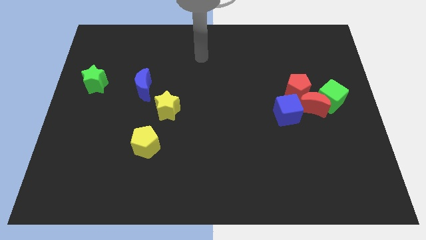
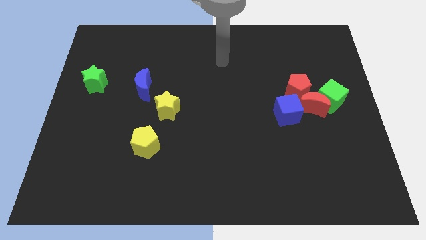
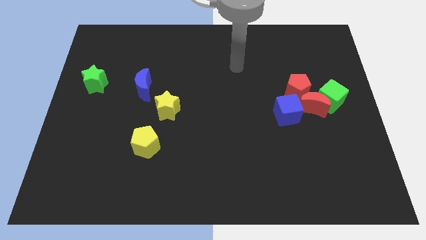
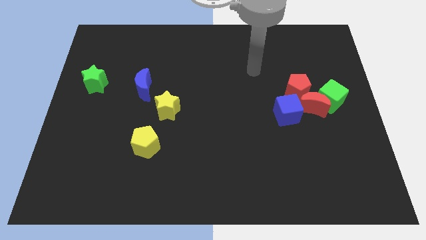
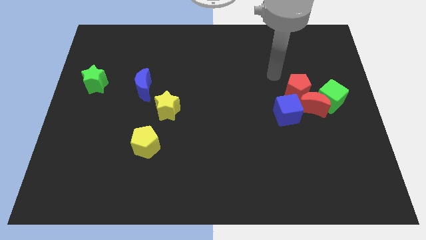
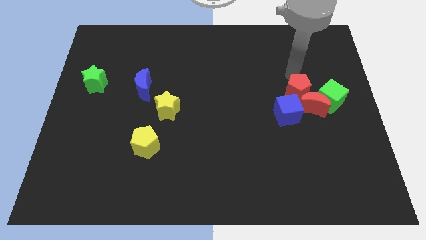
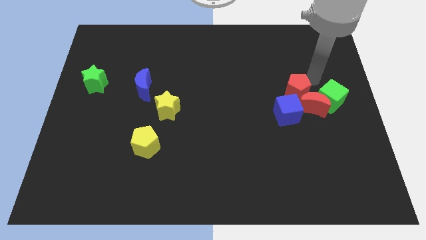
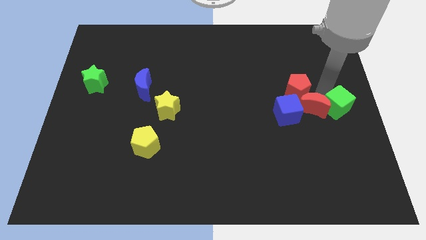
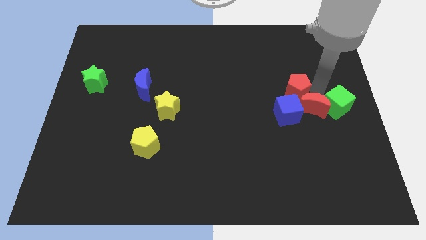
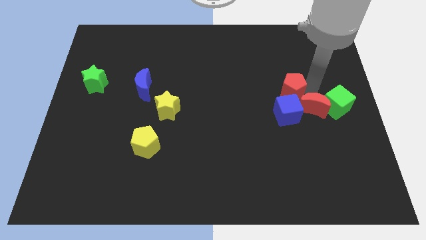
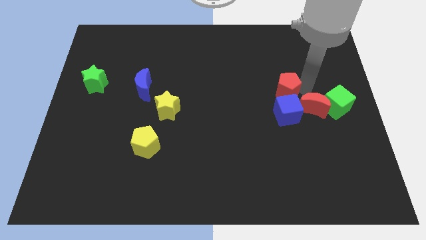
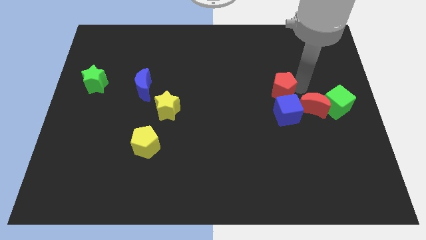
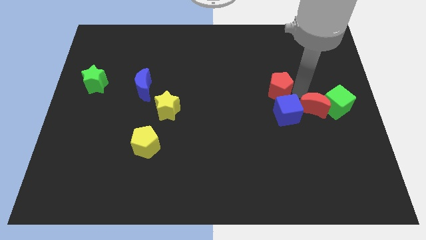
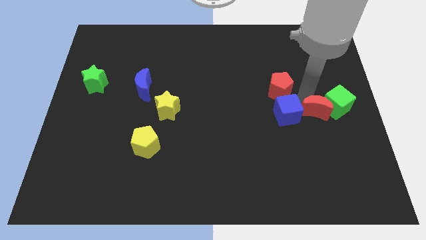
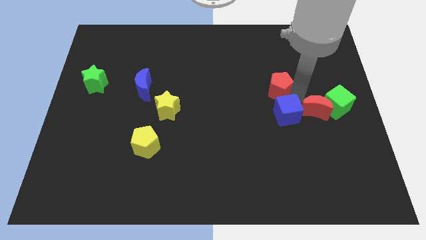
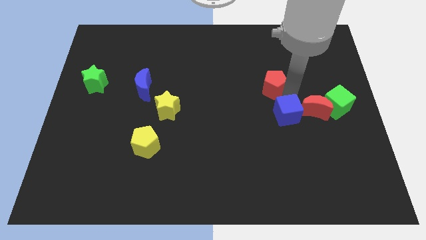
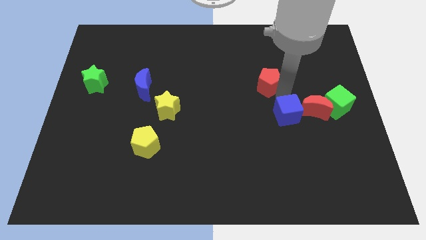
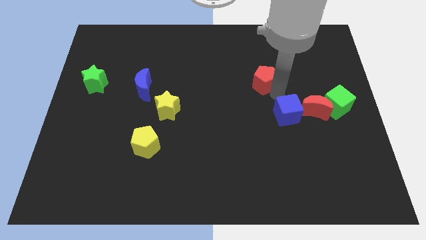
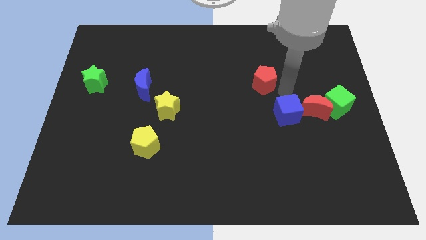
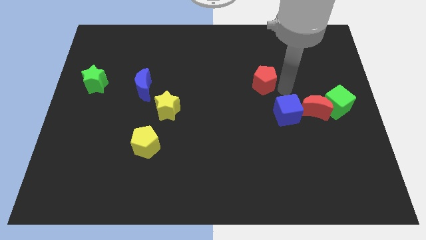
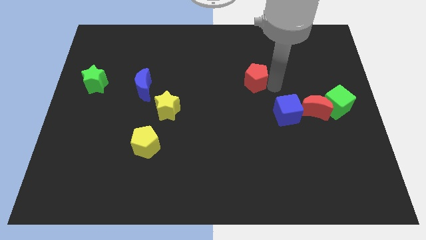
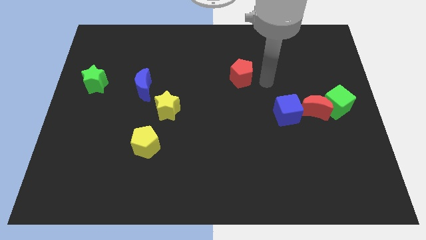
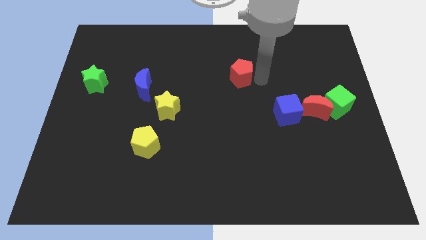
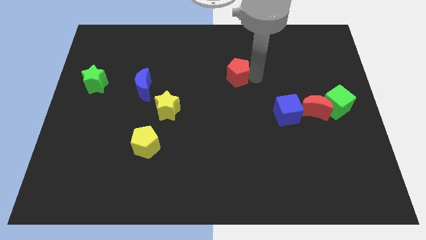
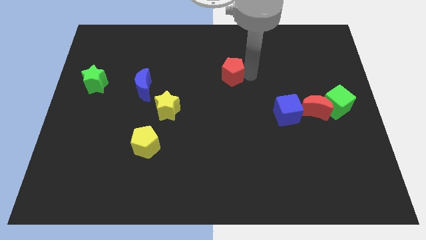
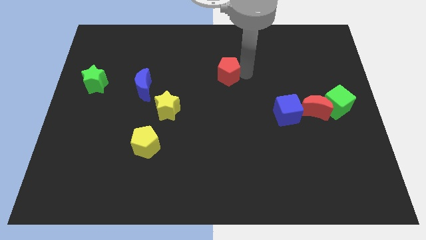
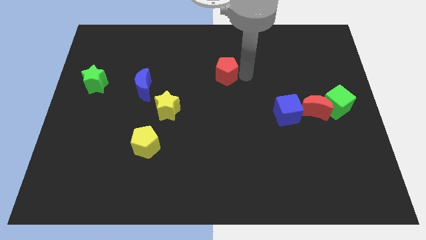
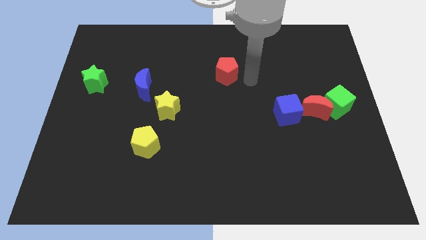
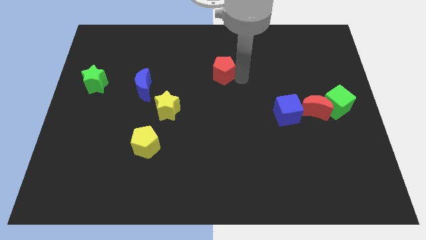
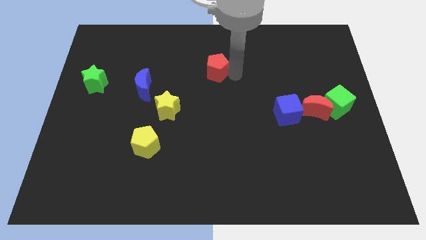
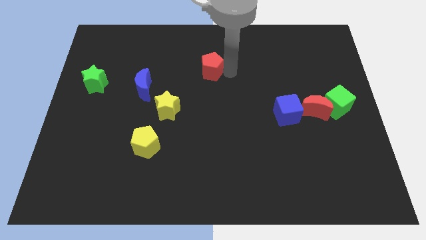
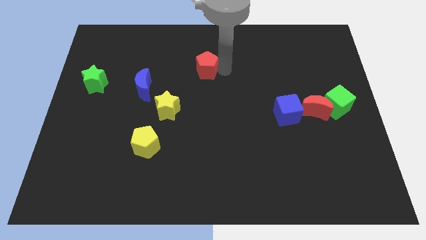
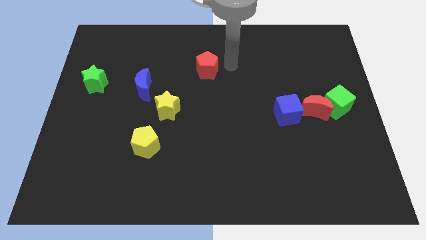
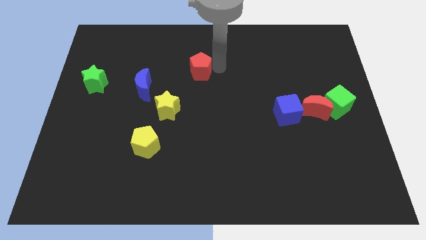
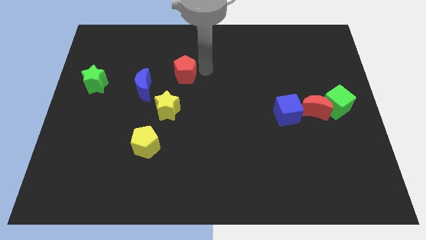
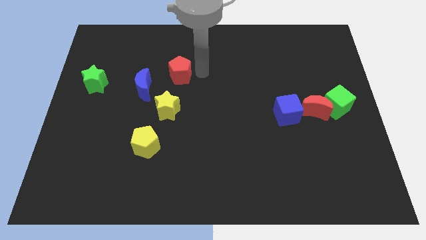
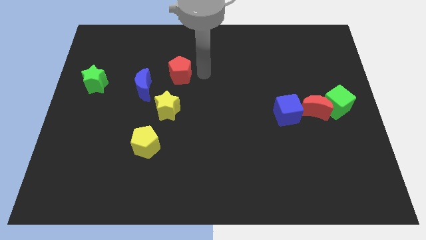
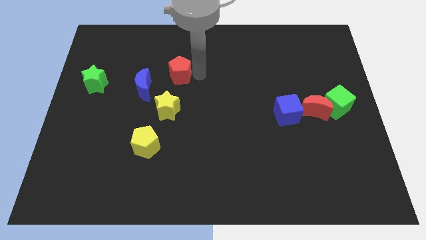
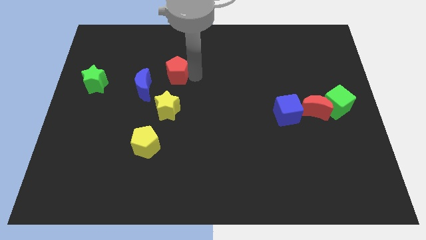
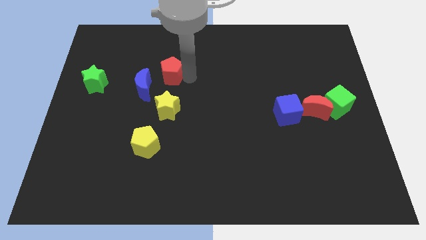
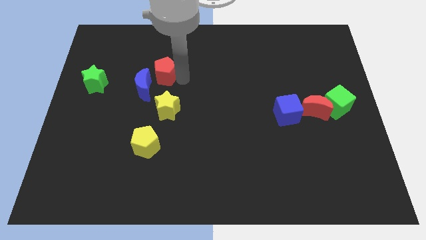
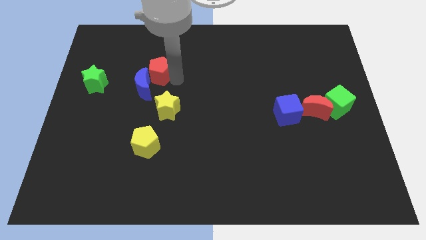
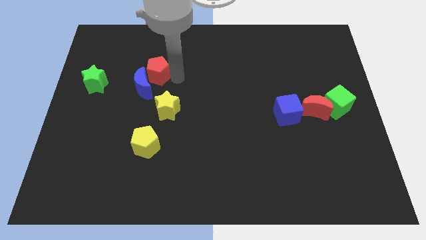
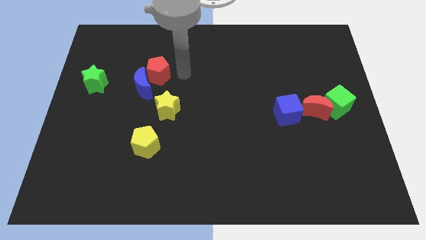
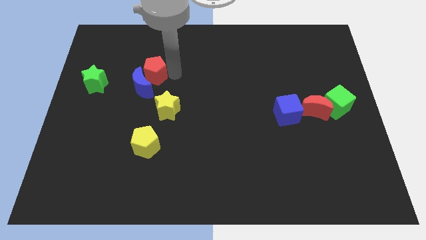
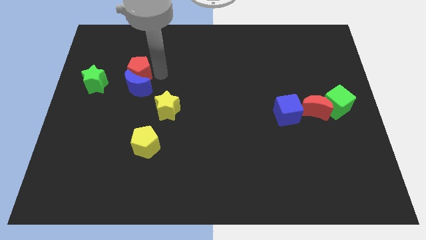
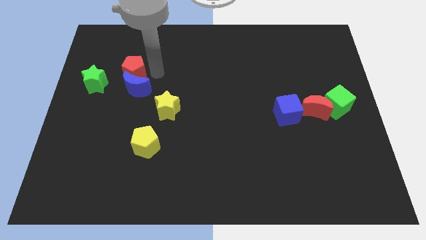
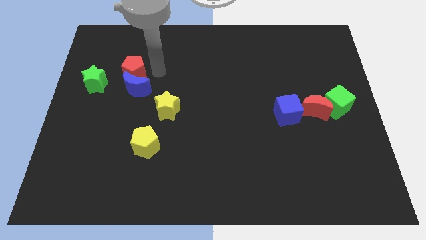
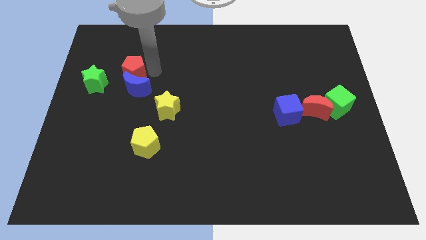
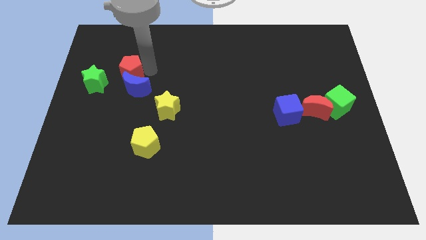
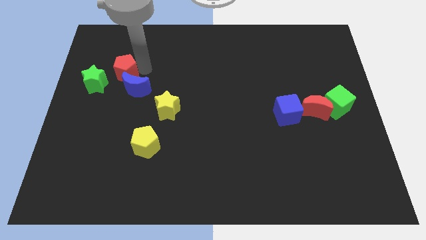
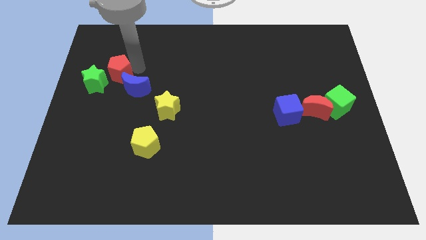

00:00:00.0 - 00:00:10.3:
push the red pentagon to the green star

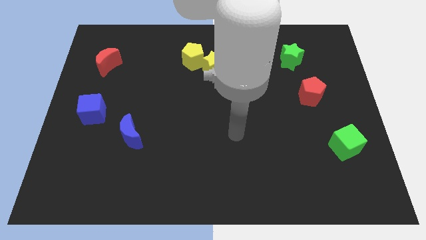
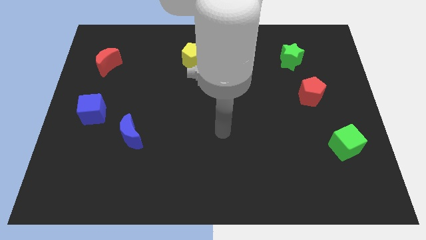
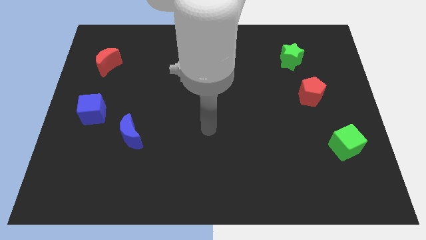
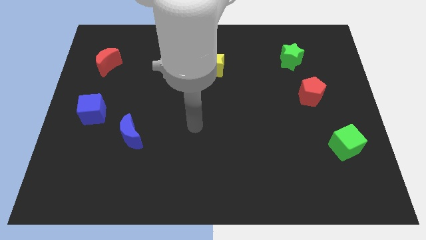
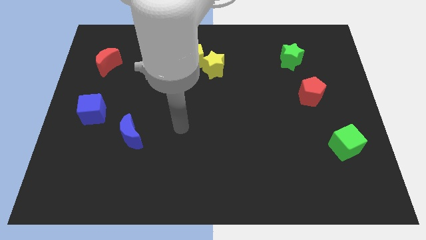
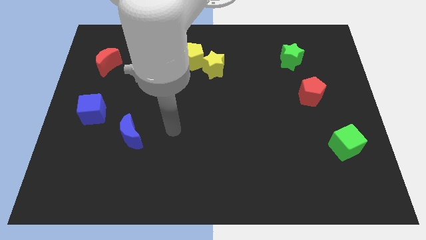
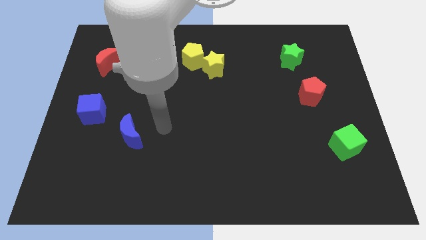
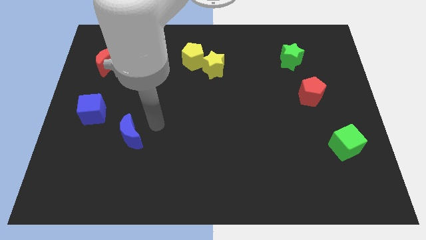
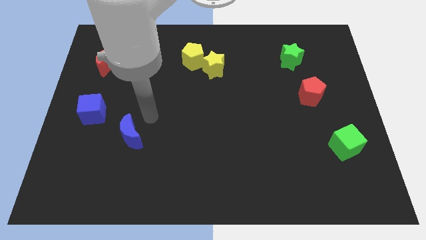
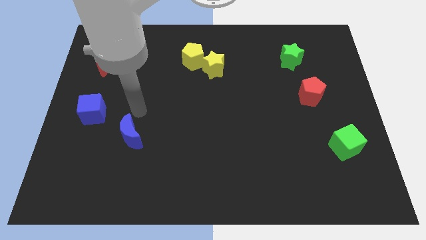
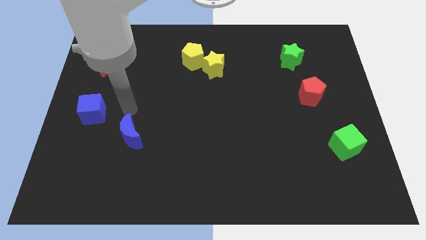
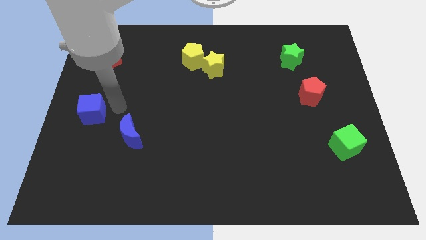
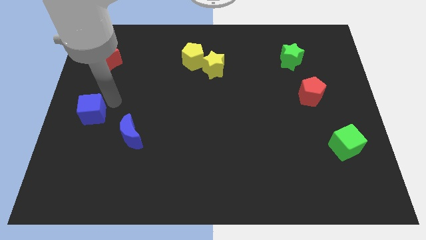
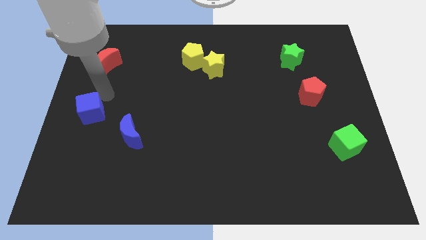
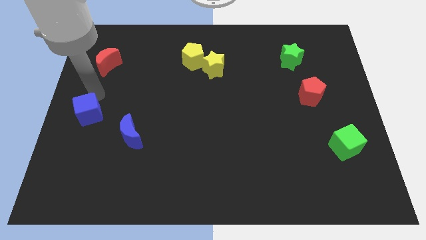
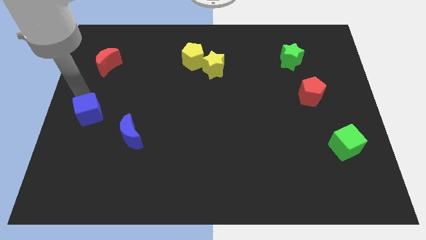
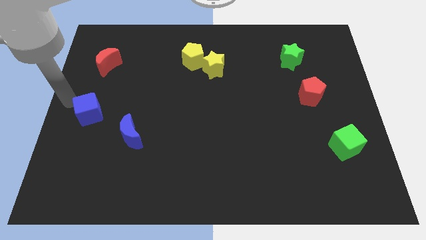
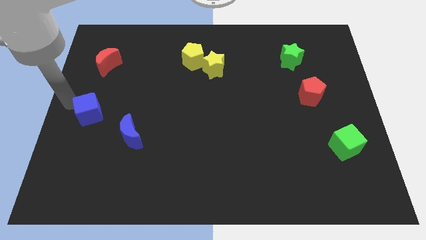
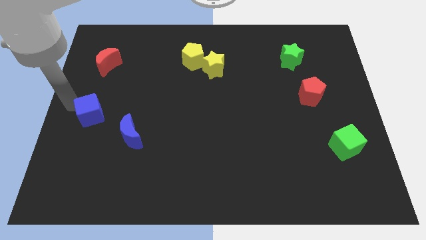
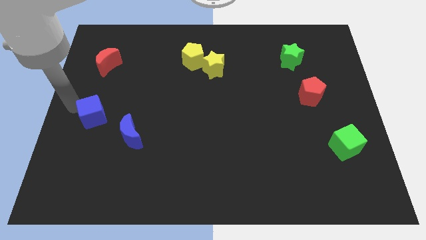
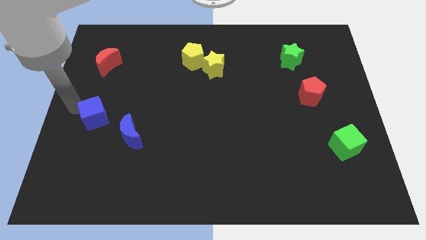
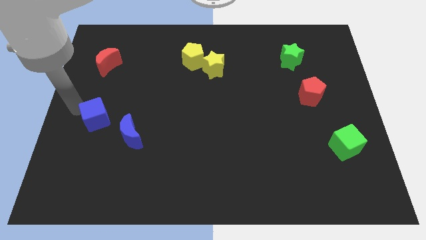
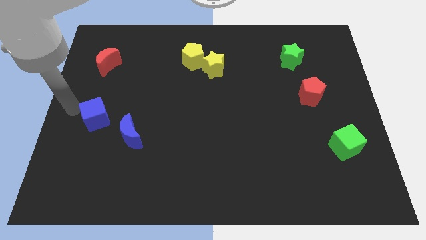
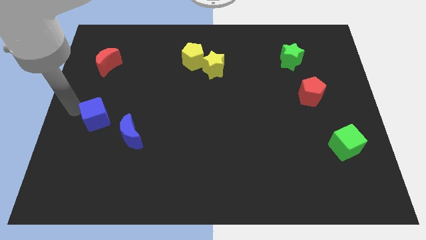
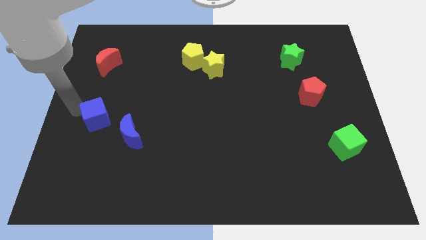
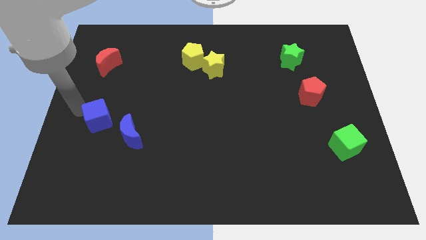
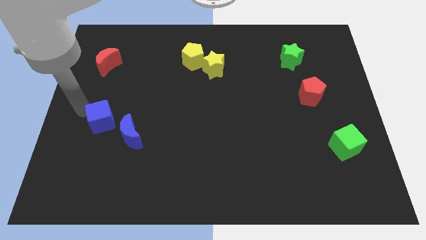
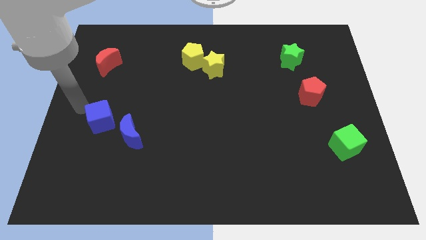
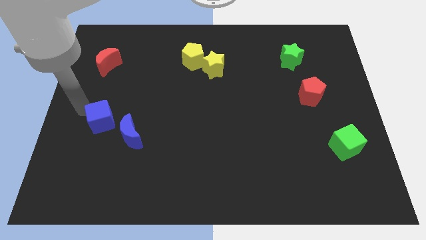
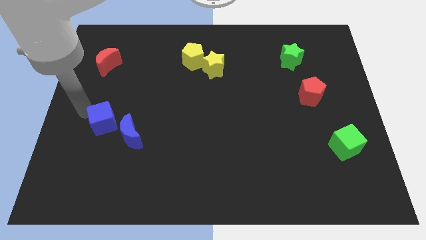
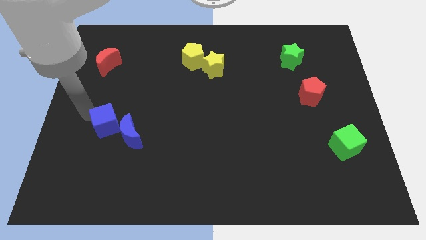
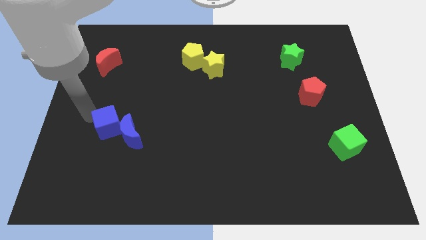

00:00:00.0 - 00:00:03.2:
slide the blue cube next to the blue moon
